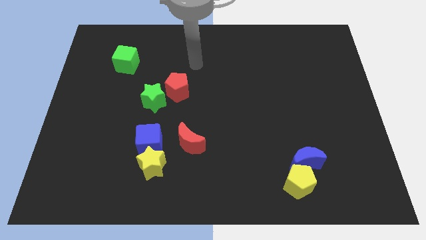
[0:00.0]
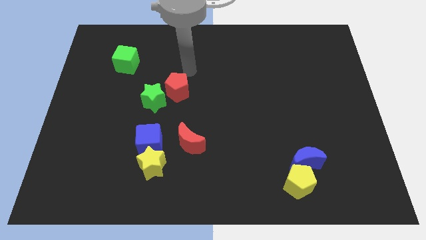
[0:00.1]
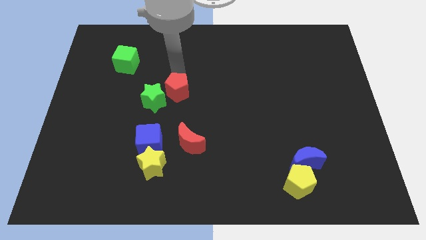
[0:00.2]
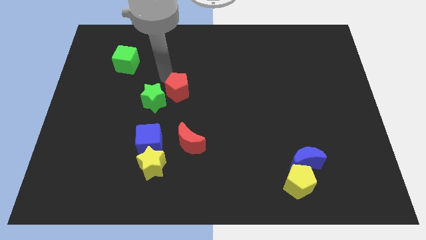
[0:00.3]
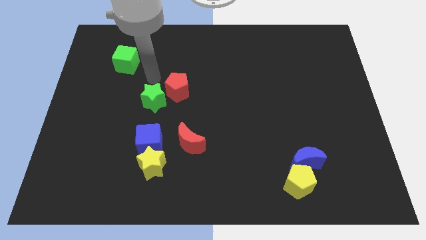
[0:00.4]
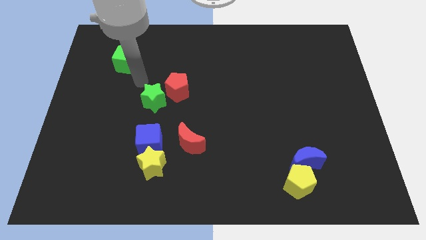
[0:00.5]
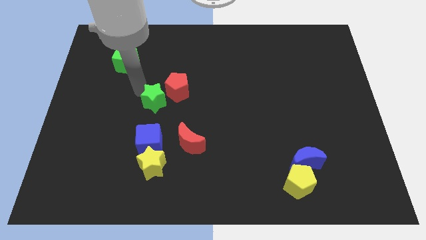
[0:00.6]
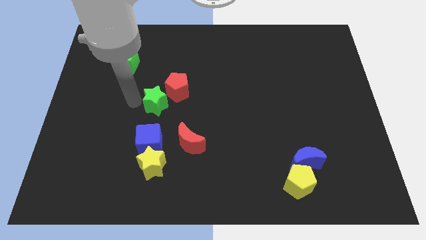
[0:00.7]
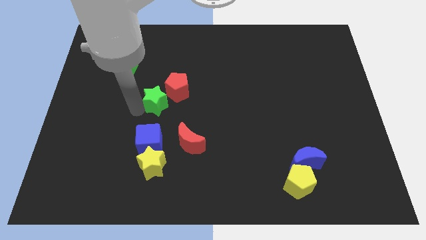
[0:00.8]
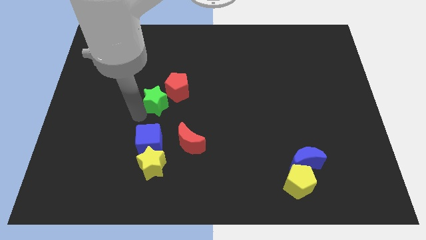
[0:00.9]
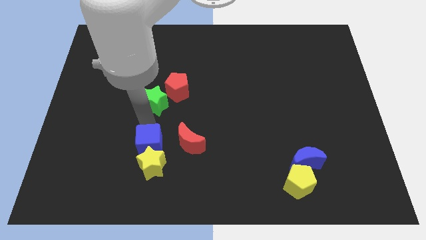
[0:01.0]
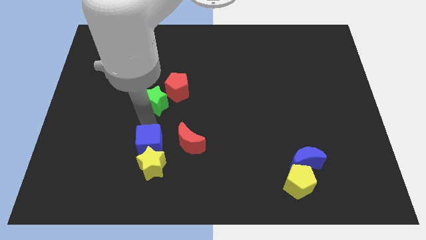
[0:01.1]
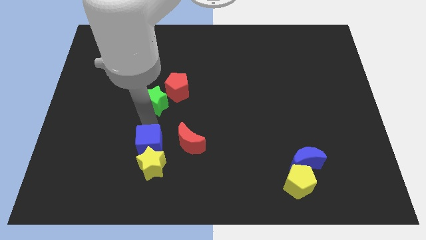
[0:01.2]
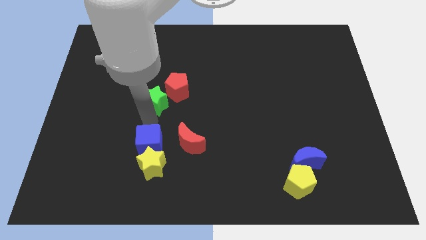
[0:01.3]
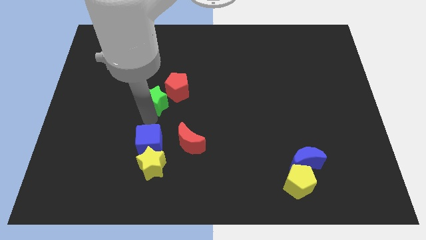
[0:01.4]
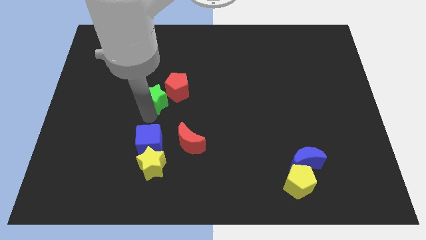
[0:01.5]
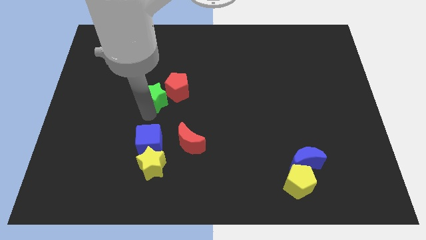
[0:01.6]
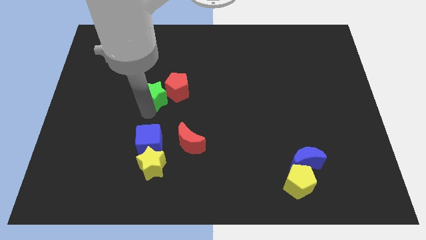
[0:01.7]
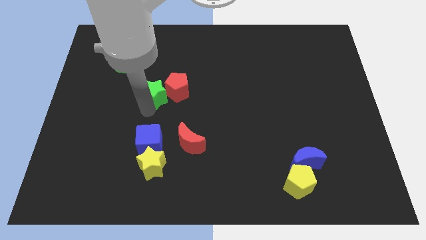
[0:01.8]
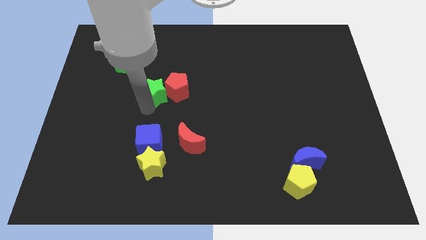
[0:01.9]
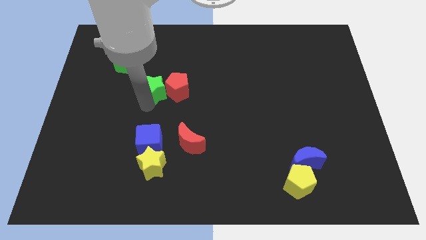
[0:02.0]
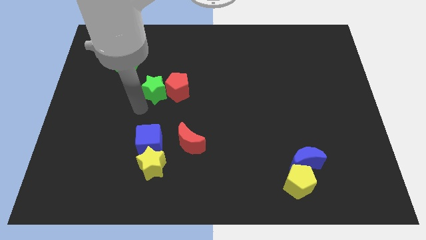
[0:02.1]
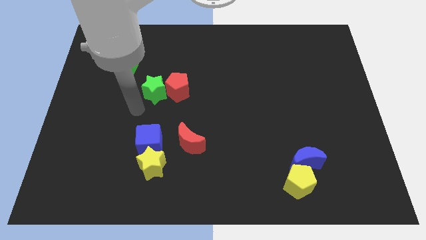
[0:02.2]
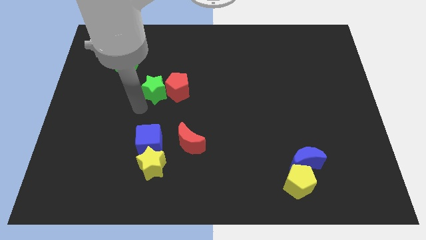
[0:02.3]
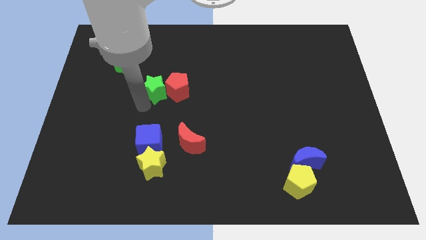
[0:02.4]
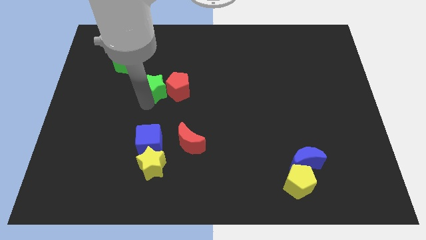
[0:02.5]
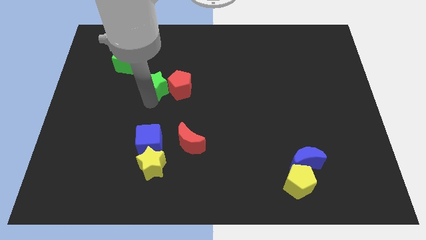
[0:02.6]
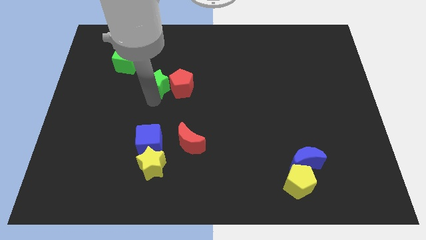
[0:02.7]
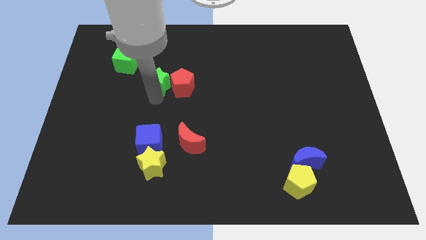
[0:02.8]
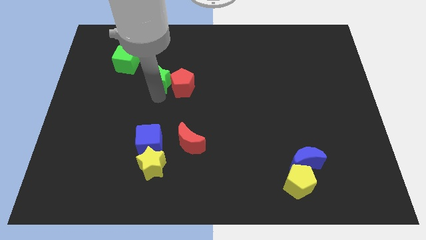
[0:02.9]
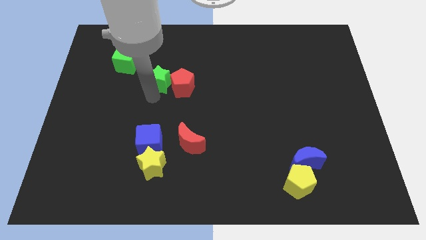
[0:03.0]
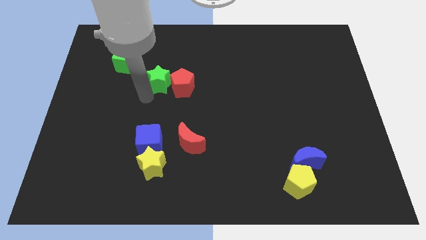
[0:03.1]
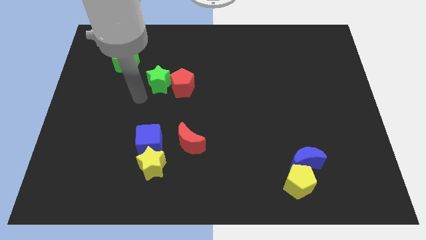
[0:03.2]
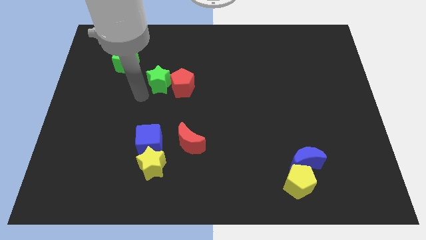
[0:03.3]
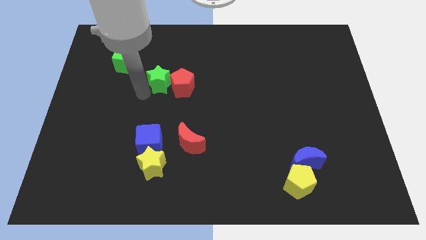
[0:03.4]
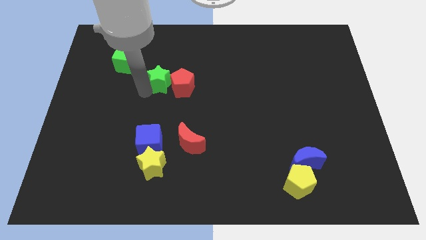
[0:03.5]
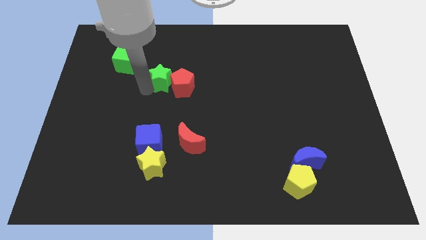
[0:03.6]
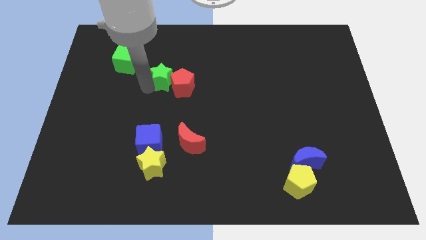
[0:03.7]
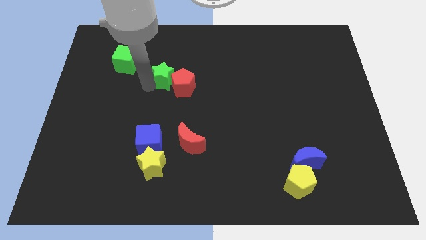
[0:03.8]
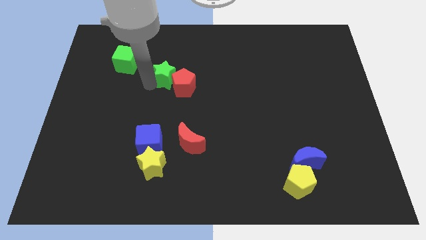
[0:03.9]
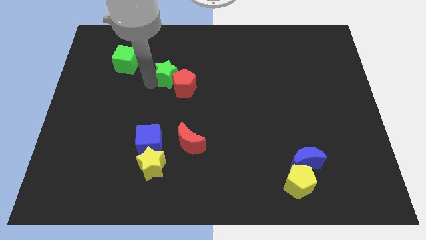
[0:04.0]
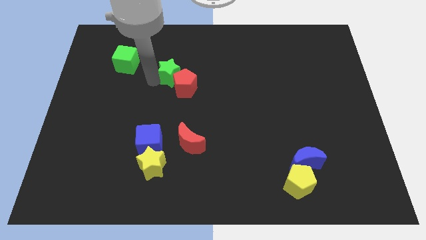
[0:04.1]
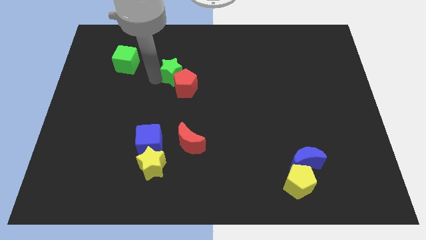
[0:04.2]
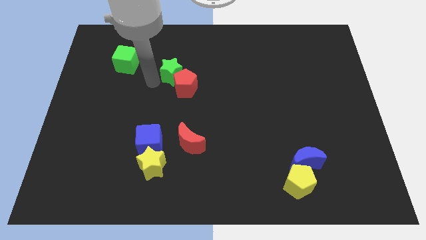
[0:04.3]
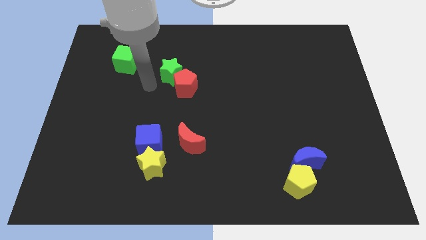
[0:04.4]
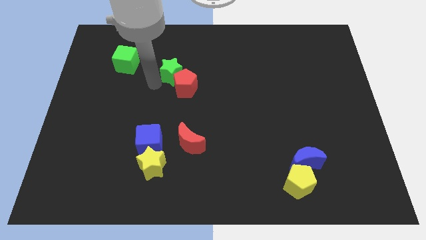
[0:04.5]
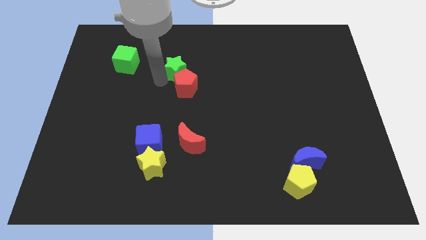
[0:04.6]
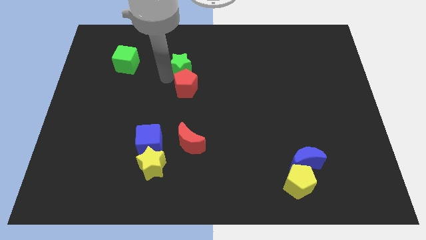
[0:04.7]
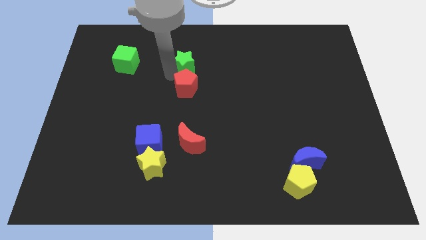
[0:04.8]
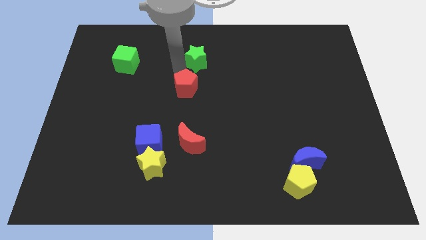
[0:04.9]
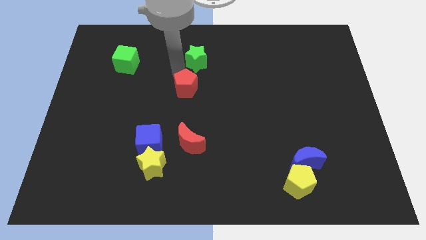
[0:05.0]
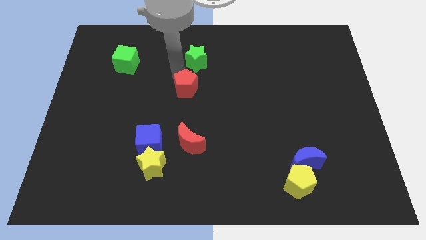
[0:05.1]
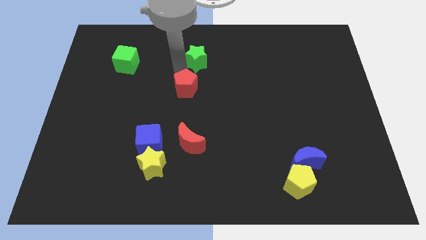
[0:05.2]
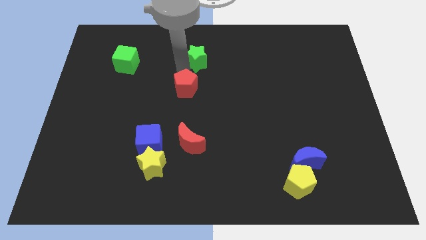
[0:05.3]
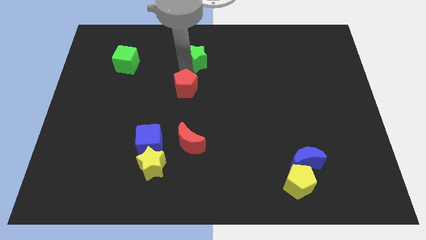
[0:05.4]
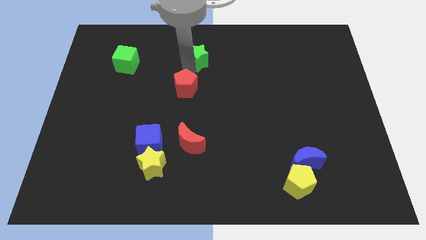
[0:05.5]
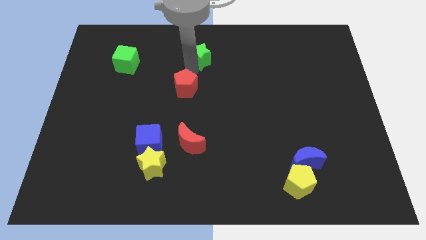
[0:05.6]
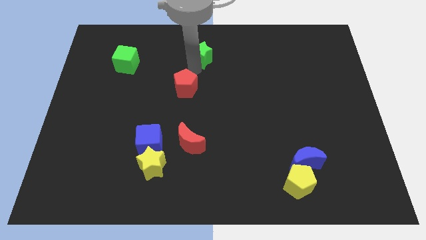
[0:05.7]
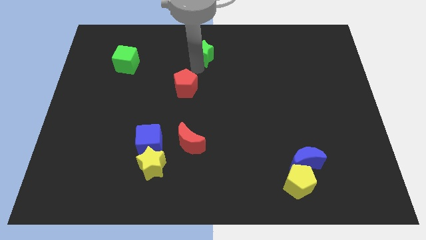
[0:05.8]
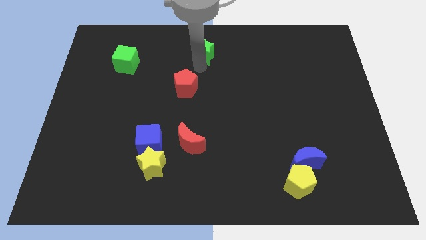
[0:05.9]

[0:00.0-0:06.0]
push the green star to the top side

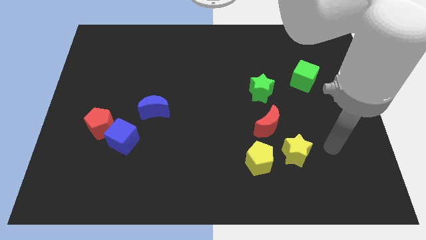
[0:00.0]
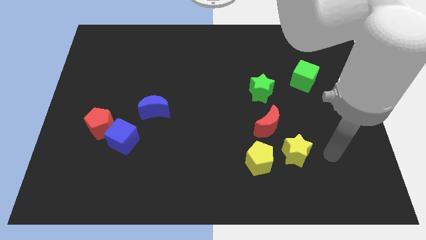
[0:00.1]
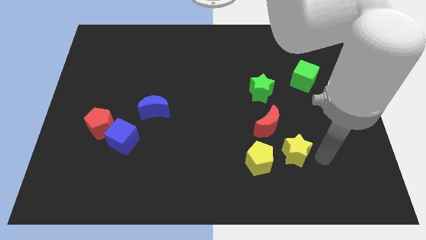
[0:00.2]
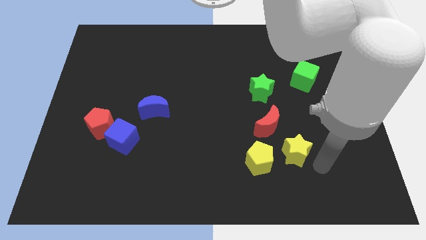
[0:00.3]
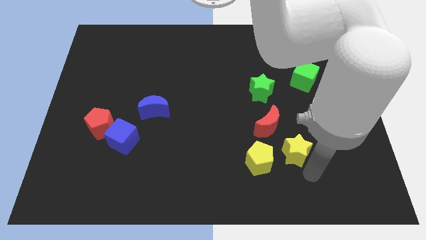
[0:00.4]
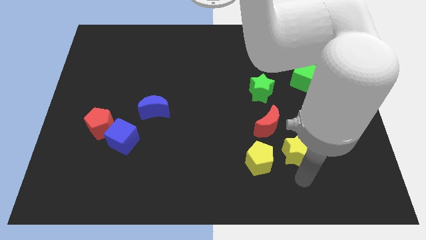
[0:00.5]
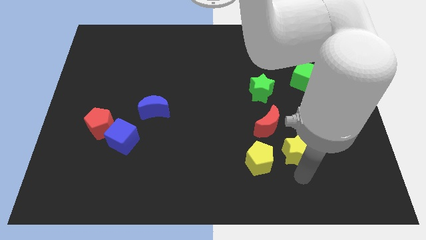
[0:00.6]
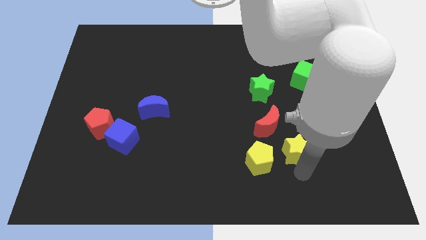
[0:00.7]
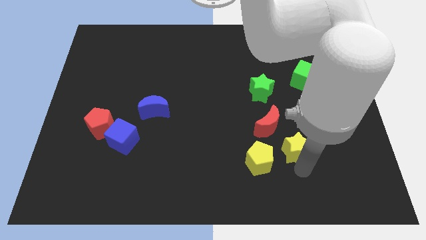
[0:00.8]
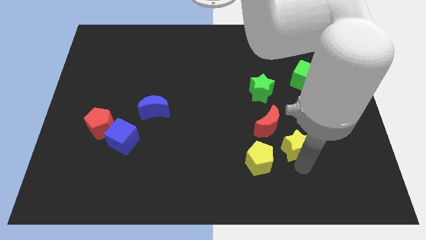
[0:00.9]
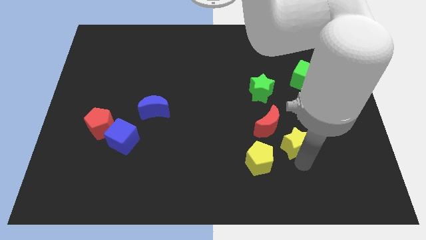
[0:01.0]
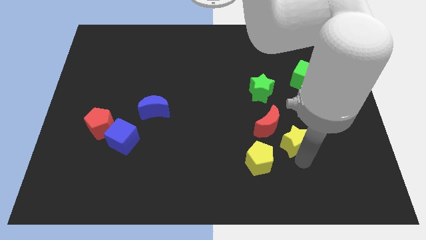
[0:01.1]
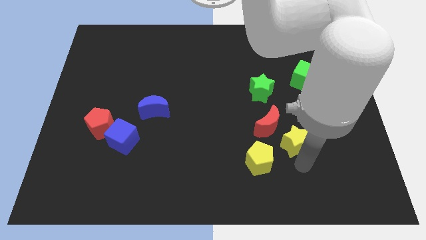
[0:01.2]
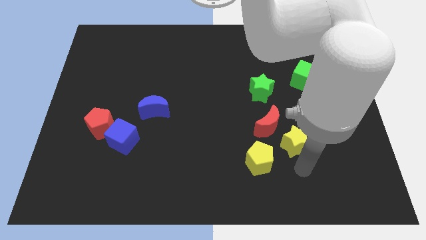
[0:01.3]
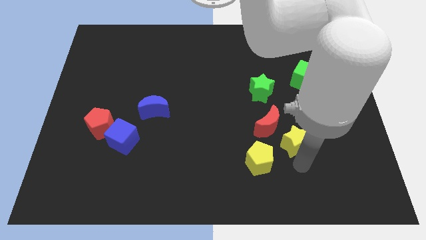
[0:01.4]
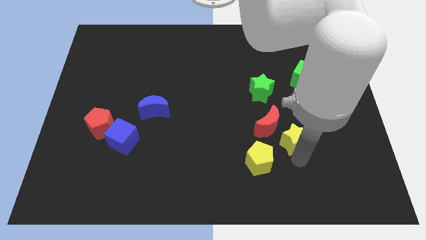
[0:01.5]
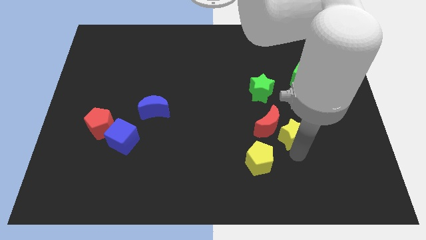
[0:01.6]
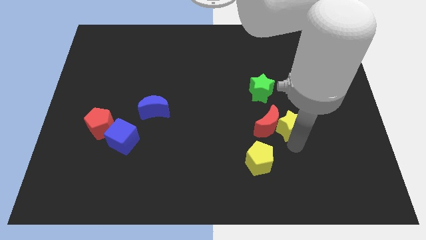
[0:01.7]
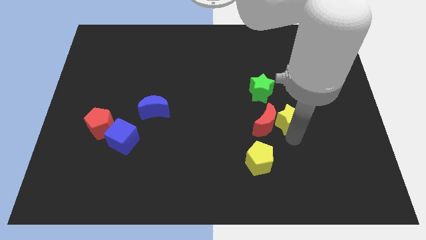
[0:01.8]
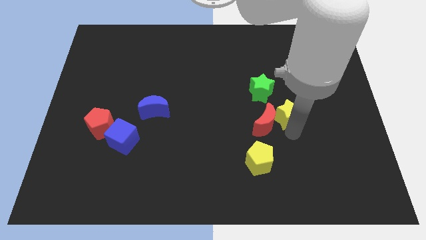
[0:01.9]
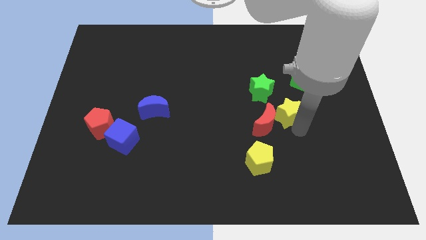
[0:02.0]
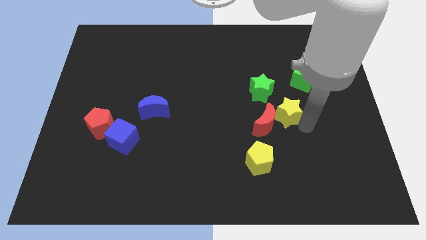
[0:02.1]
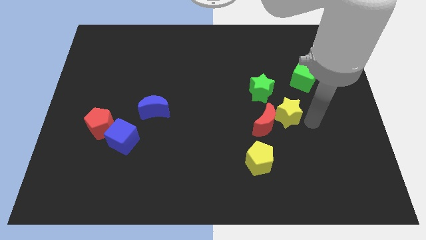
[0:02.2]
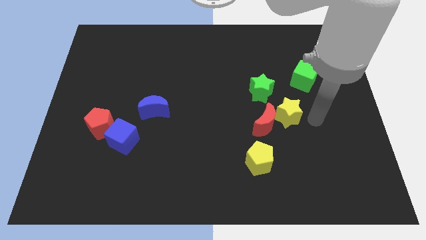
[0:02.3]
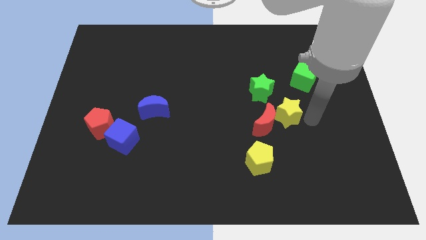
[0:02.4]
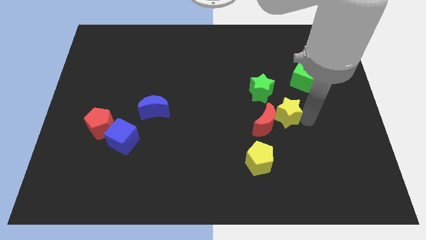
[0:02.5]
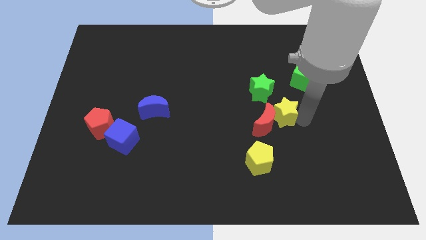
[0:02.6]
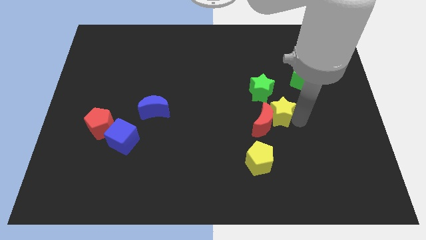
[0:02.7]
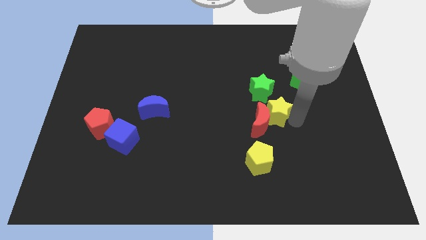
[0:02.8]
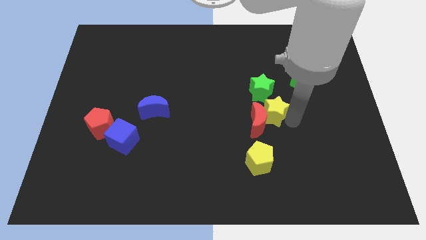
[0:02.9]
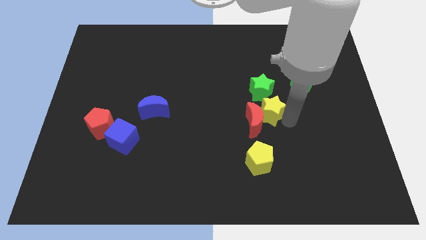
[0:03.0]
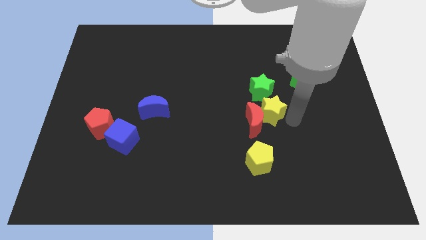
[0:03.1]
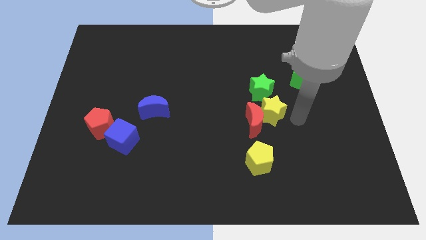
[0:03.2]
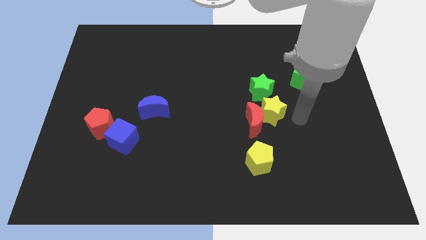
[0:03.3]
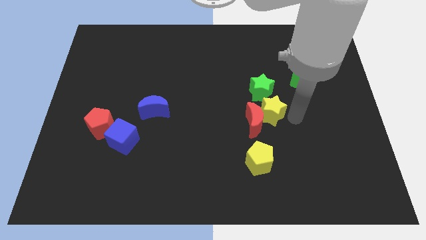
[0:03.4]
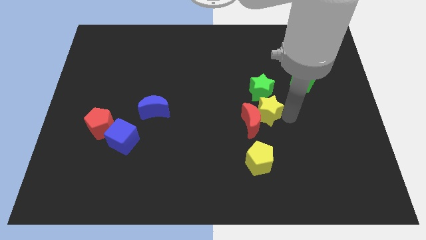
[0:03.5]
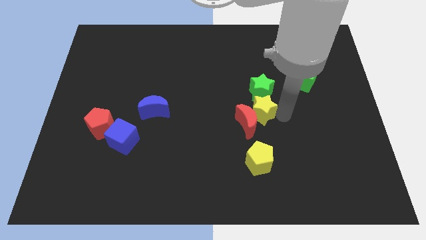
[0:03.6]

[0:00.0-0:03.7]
slide the yellow star to the center of the board
